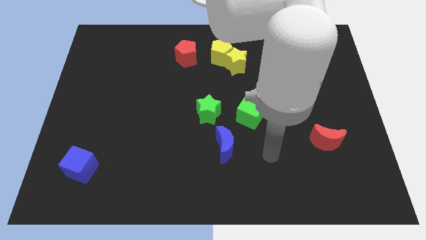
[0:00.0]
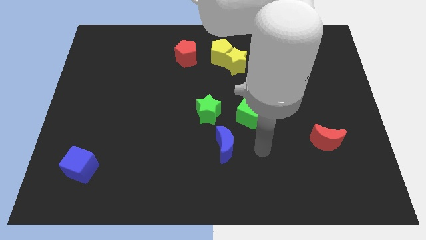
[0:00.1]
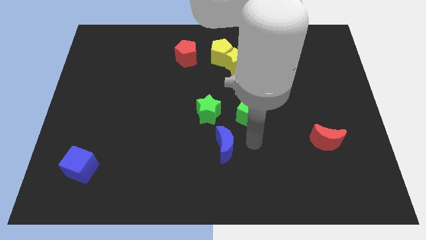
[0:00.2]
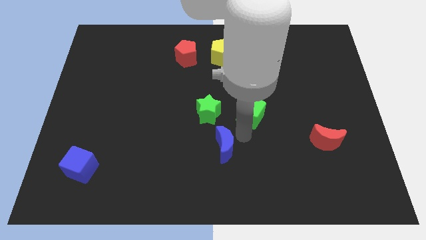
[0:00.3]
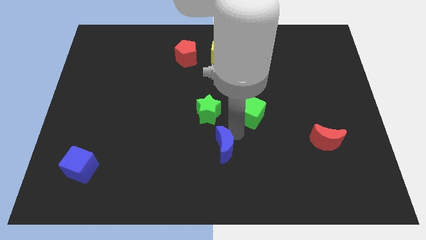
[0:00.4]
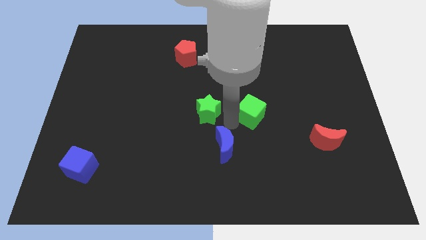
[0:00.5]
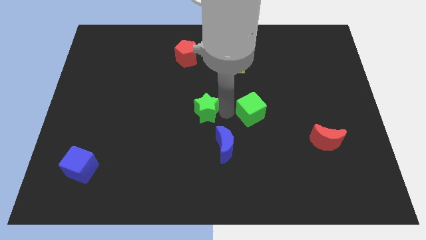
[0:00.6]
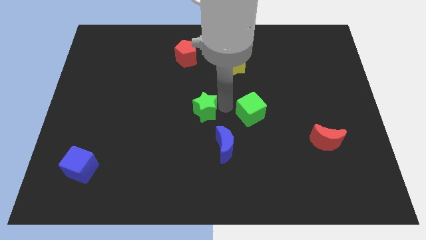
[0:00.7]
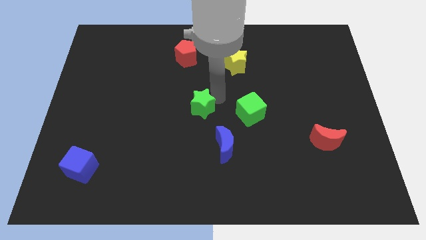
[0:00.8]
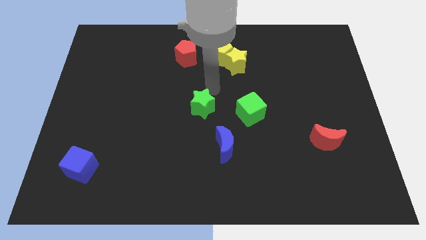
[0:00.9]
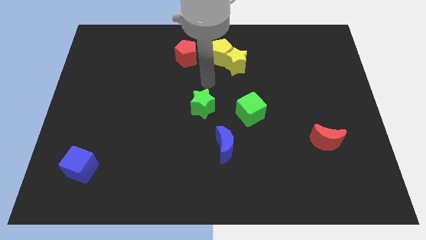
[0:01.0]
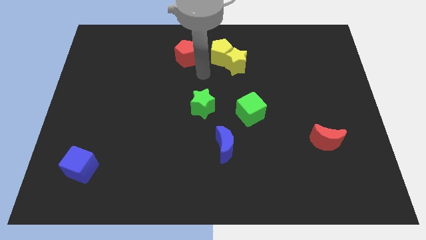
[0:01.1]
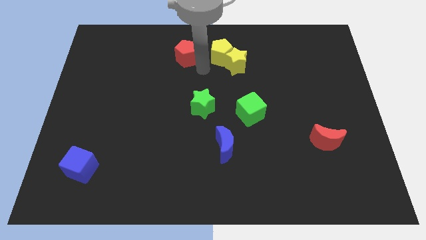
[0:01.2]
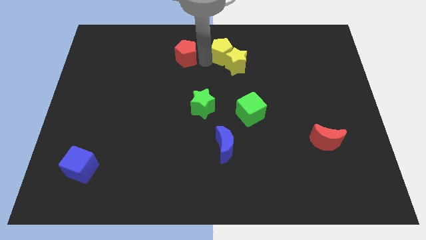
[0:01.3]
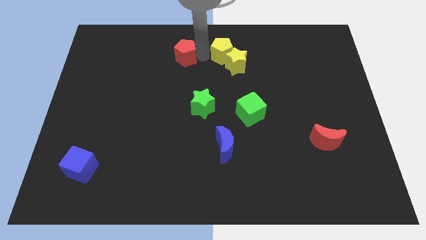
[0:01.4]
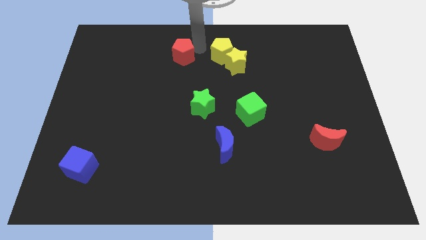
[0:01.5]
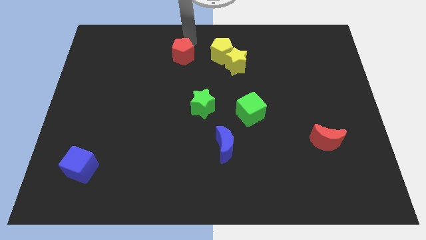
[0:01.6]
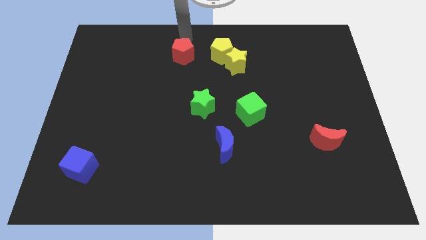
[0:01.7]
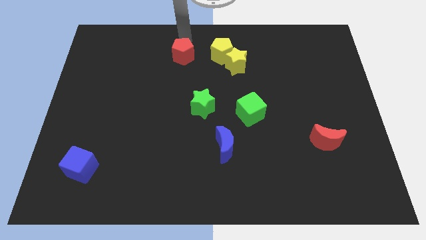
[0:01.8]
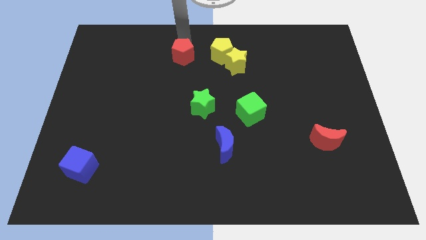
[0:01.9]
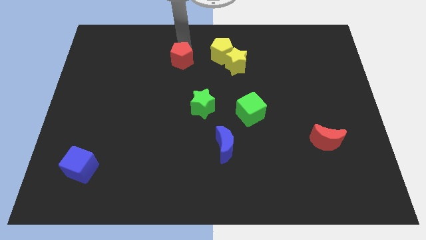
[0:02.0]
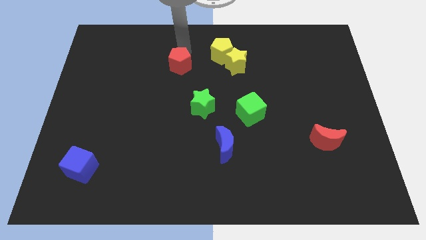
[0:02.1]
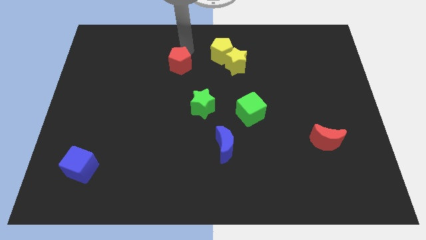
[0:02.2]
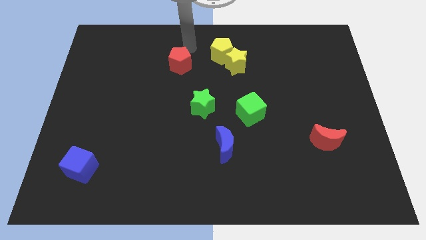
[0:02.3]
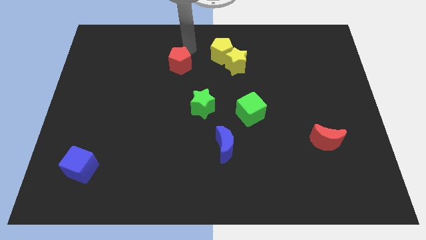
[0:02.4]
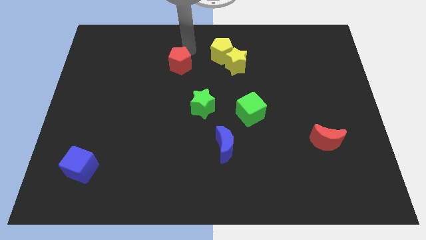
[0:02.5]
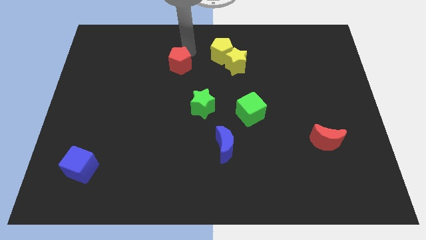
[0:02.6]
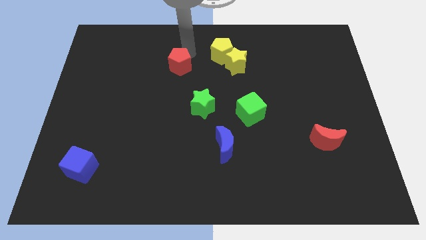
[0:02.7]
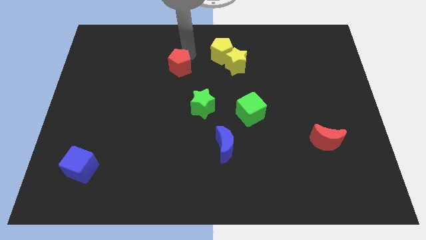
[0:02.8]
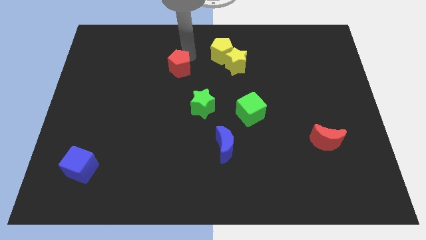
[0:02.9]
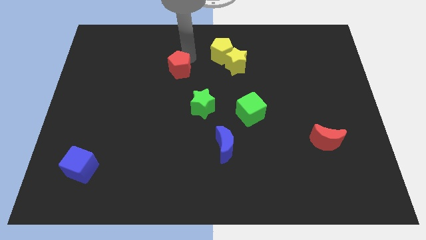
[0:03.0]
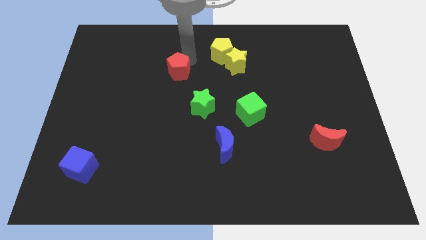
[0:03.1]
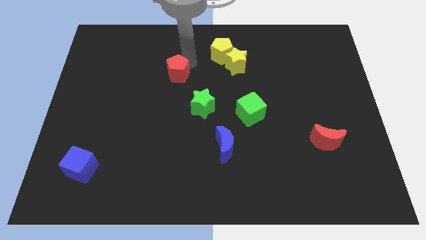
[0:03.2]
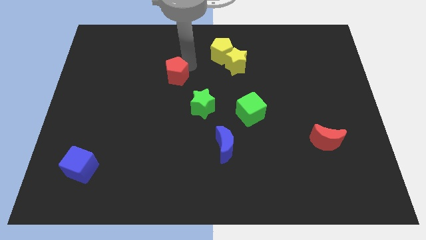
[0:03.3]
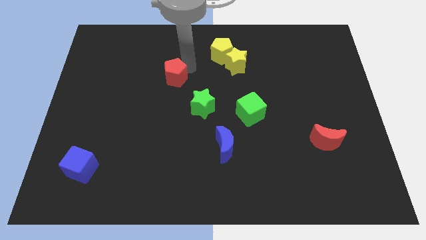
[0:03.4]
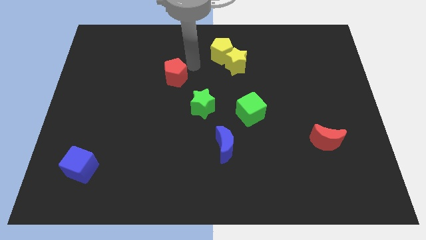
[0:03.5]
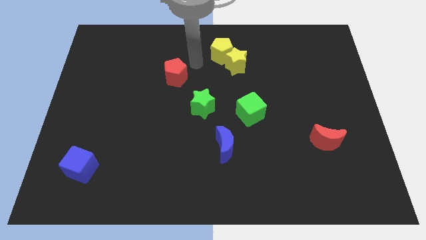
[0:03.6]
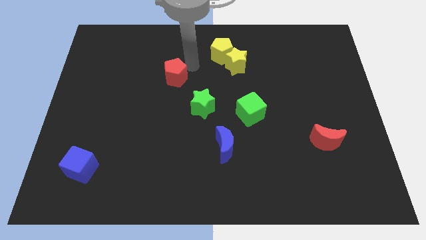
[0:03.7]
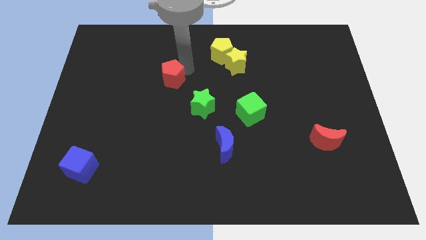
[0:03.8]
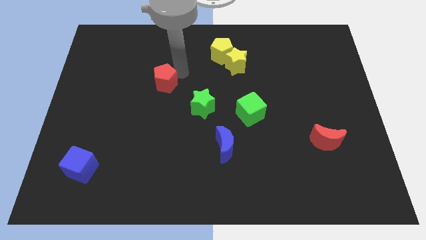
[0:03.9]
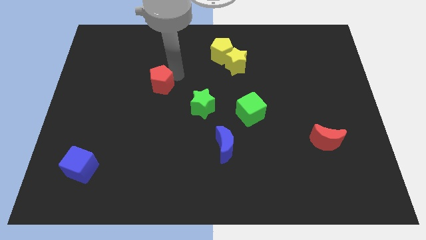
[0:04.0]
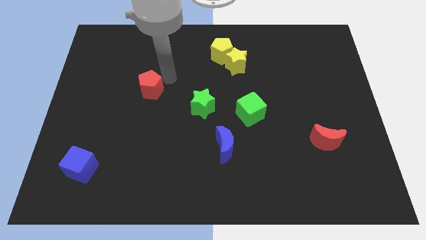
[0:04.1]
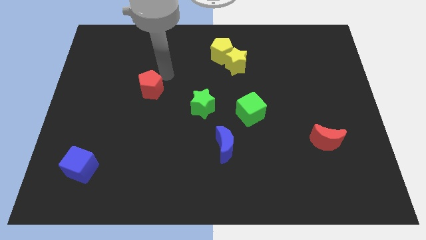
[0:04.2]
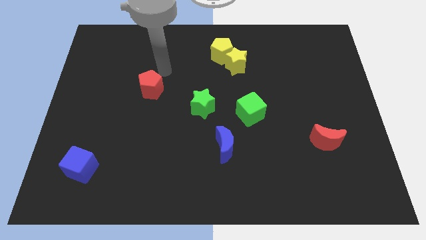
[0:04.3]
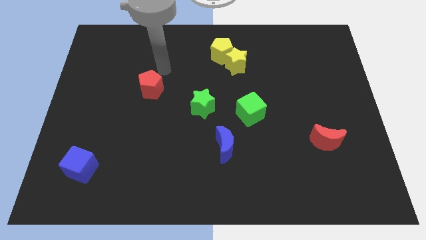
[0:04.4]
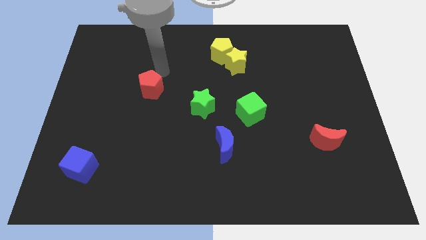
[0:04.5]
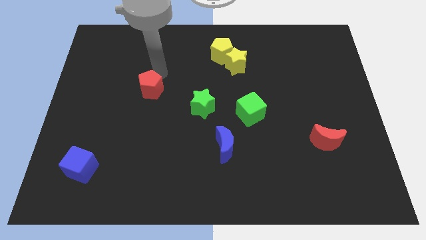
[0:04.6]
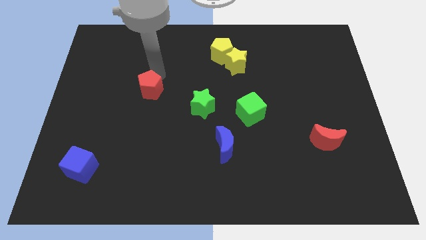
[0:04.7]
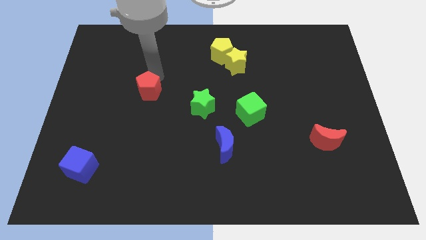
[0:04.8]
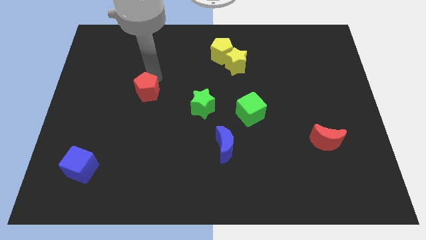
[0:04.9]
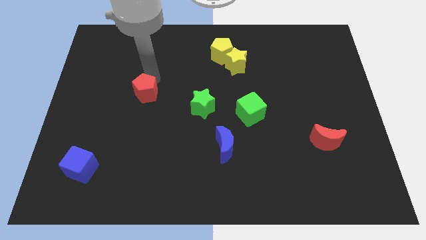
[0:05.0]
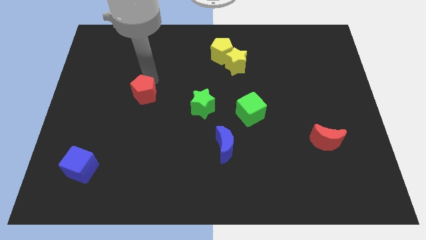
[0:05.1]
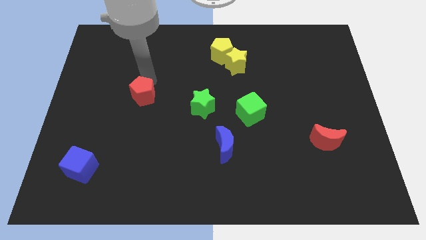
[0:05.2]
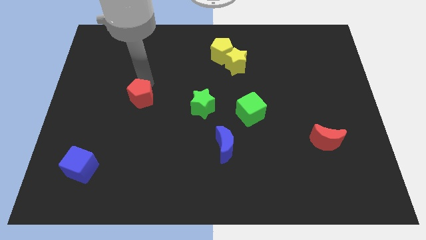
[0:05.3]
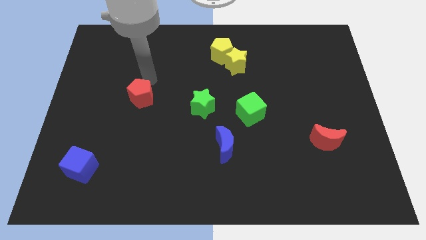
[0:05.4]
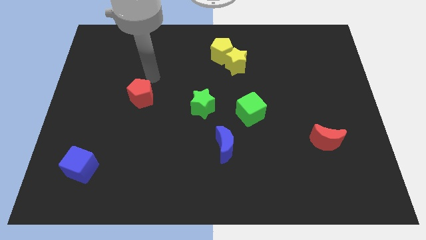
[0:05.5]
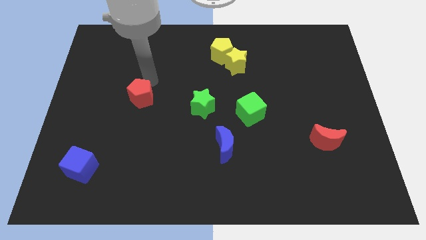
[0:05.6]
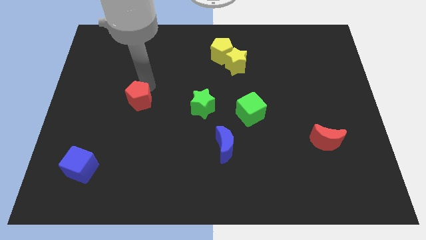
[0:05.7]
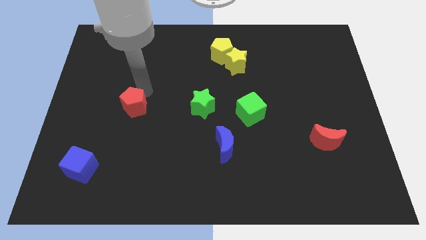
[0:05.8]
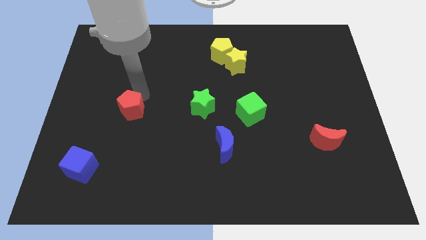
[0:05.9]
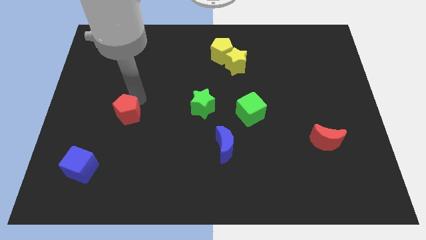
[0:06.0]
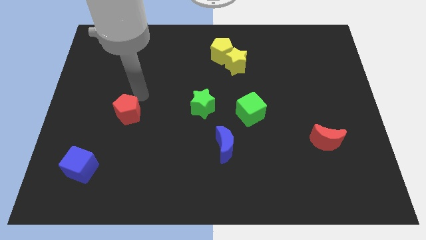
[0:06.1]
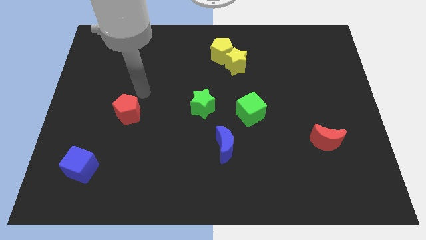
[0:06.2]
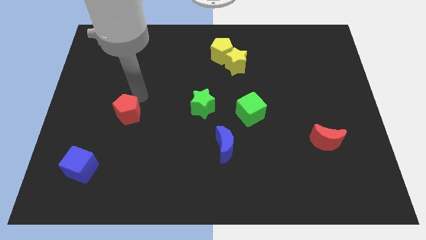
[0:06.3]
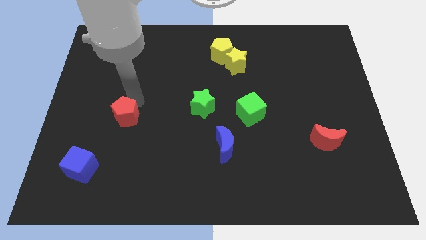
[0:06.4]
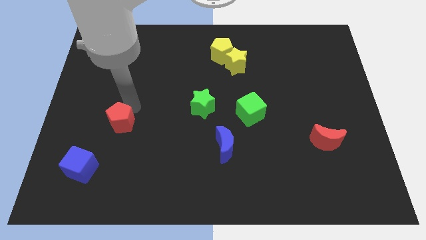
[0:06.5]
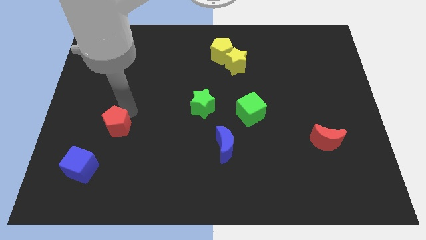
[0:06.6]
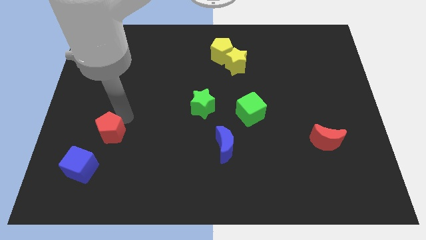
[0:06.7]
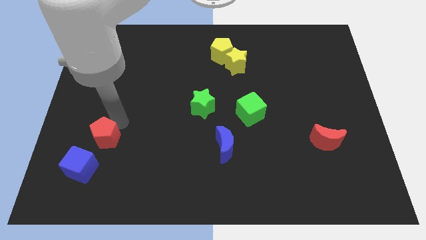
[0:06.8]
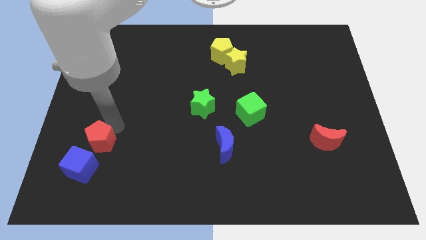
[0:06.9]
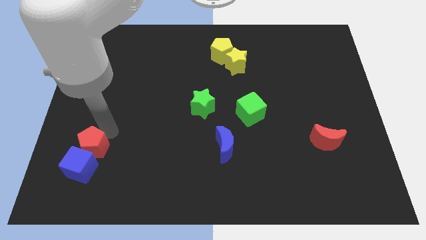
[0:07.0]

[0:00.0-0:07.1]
put the red pentagon close to the blue cube

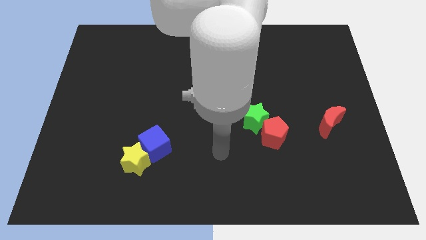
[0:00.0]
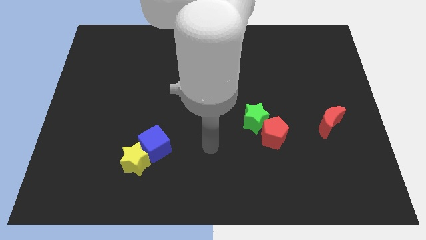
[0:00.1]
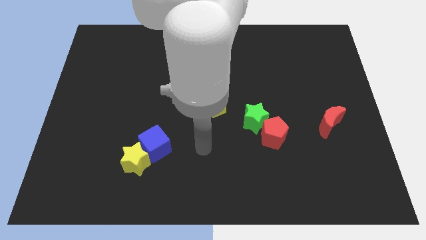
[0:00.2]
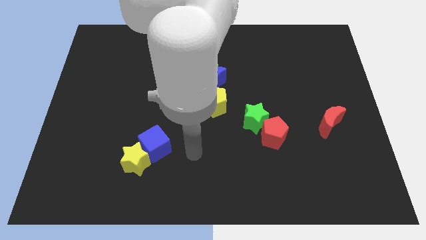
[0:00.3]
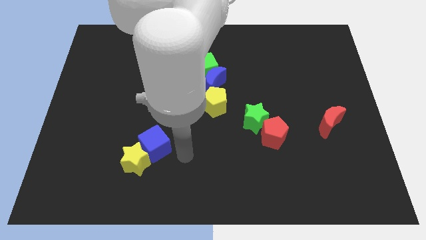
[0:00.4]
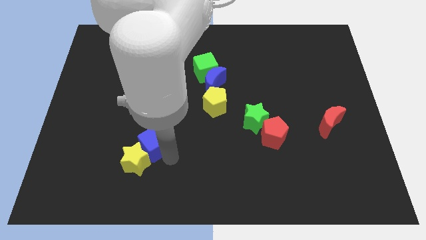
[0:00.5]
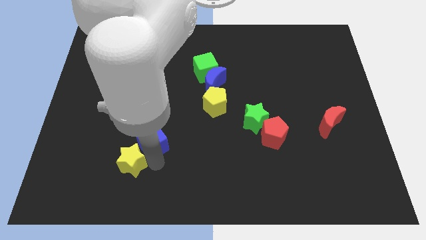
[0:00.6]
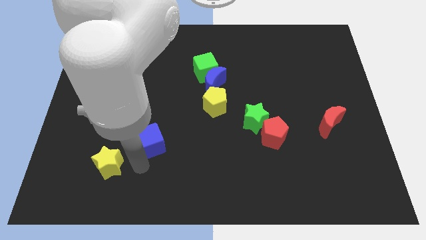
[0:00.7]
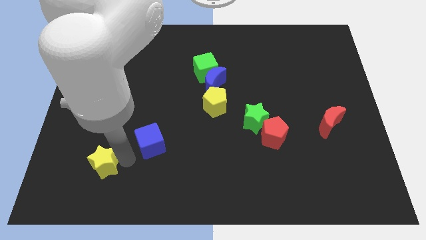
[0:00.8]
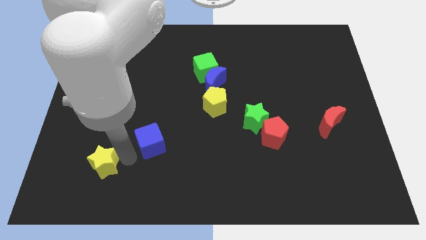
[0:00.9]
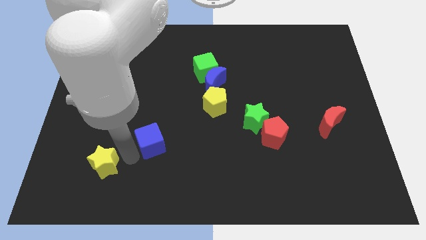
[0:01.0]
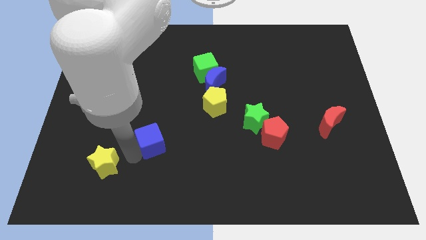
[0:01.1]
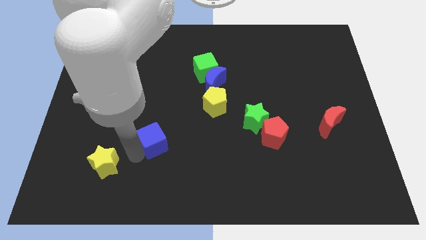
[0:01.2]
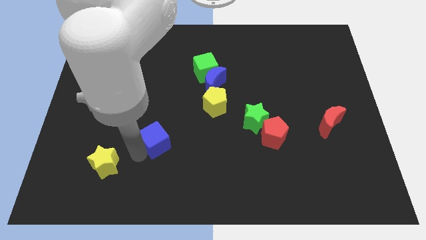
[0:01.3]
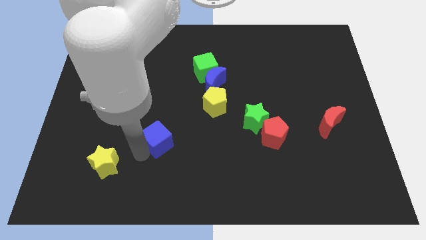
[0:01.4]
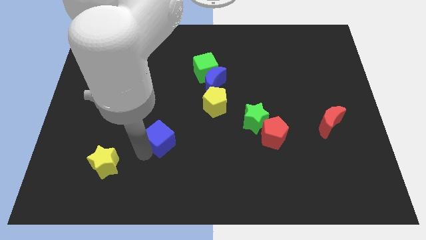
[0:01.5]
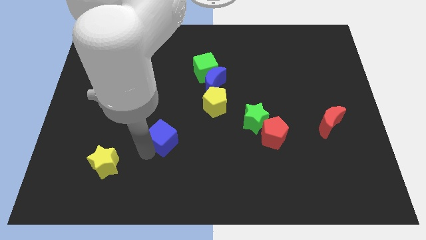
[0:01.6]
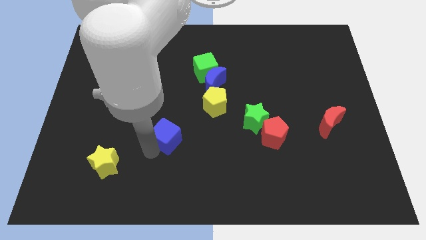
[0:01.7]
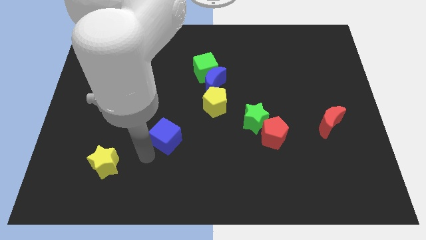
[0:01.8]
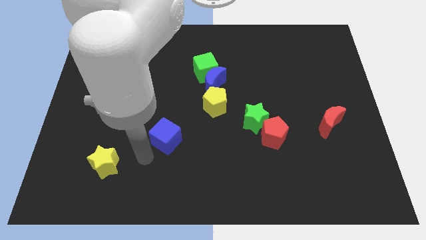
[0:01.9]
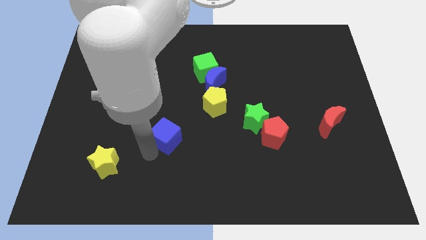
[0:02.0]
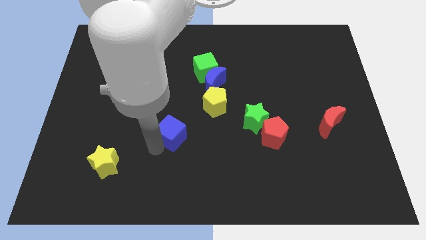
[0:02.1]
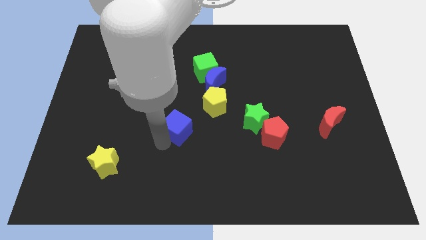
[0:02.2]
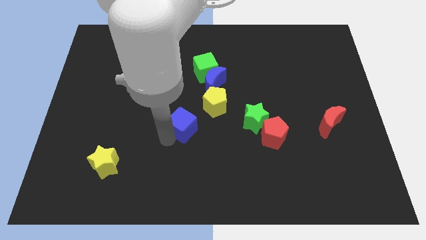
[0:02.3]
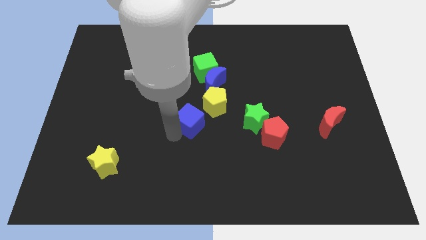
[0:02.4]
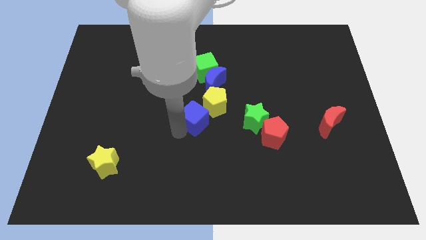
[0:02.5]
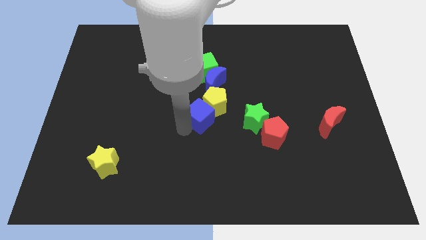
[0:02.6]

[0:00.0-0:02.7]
push the blue cube next to the yellow pentagon
